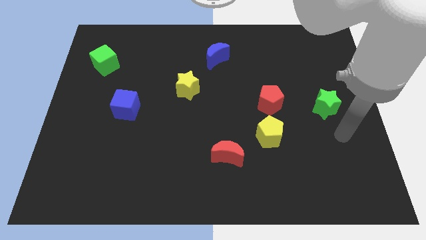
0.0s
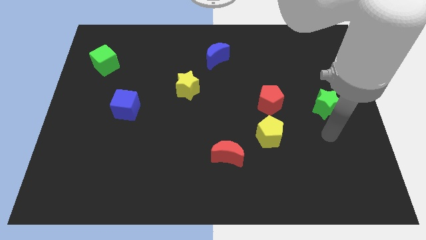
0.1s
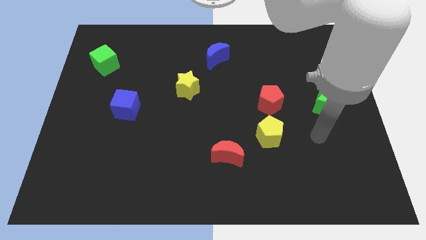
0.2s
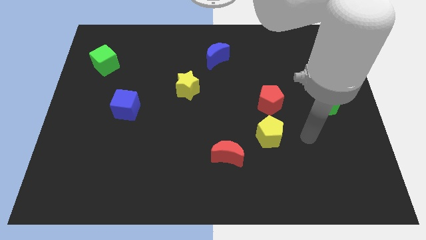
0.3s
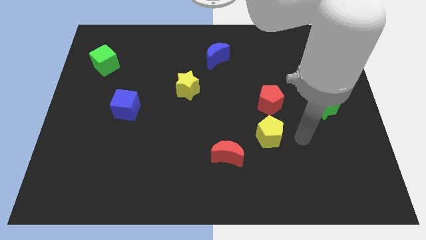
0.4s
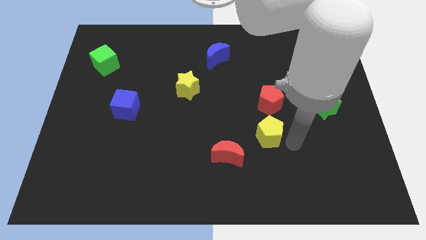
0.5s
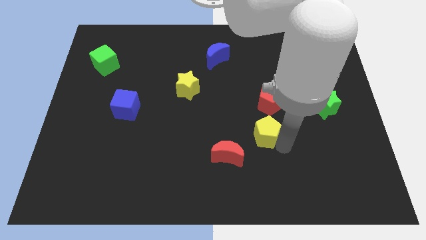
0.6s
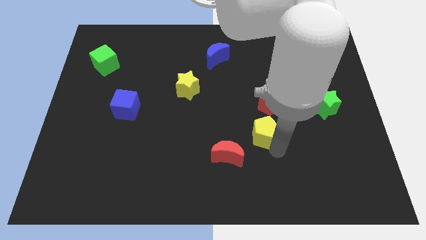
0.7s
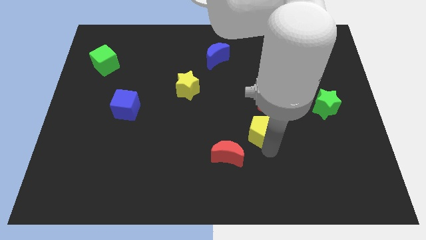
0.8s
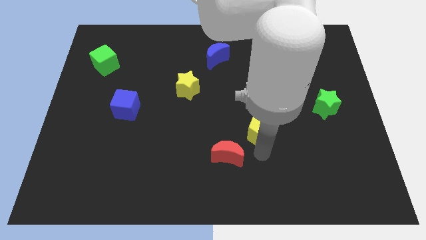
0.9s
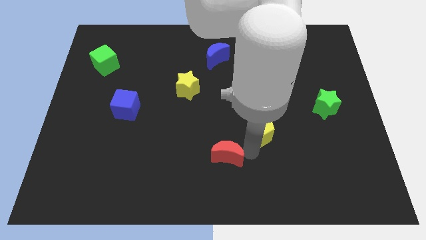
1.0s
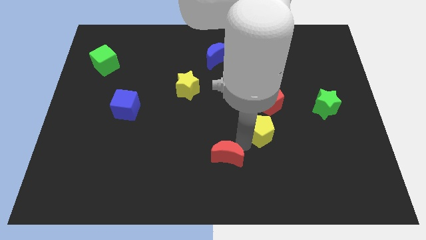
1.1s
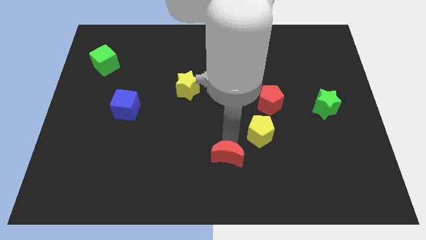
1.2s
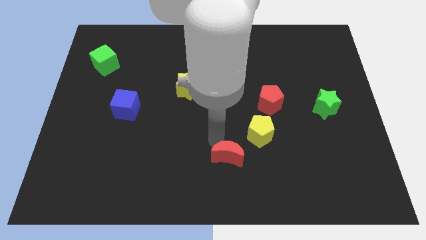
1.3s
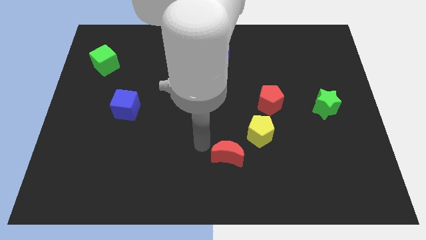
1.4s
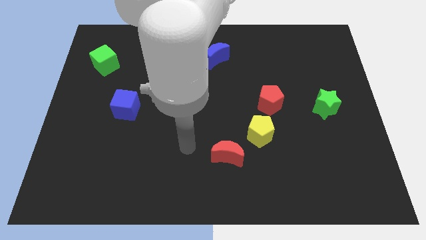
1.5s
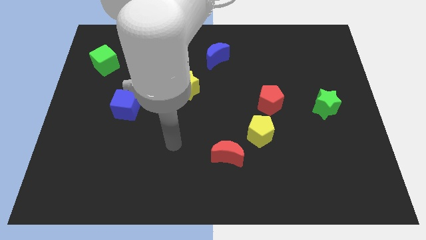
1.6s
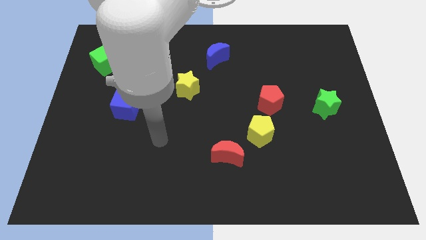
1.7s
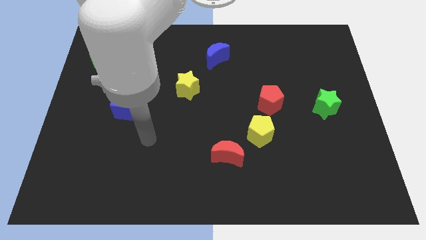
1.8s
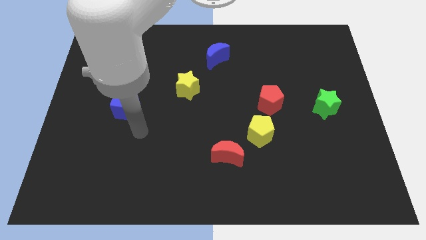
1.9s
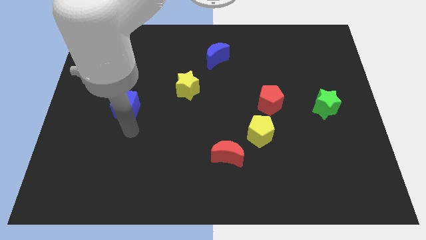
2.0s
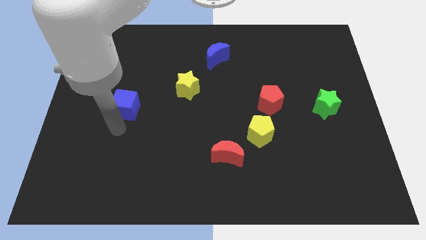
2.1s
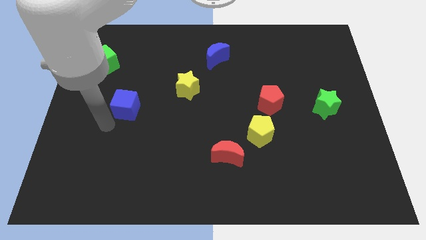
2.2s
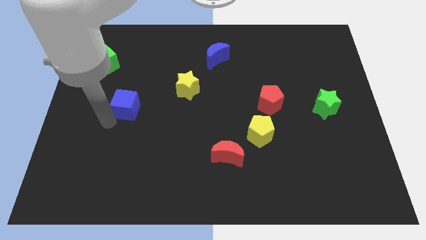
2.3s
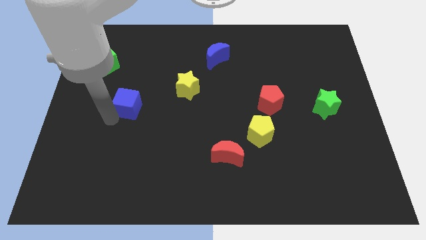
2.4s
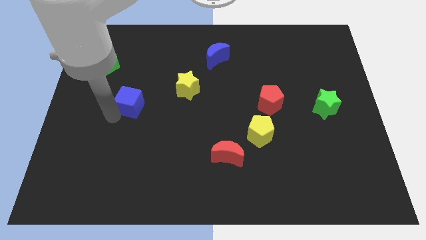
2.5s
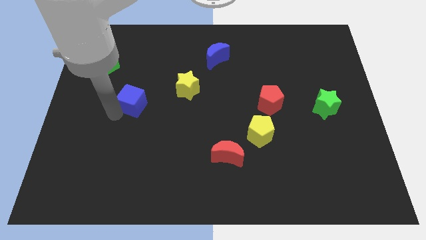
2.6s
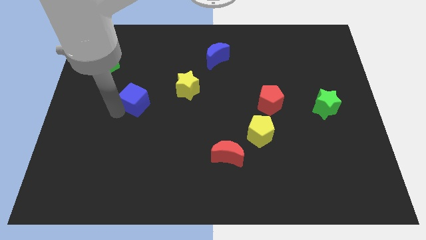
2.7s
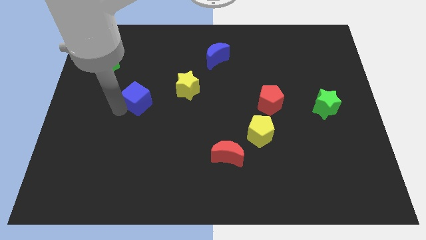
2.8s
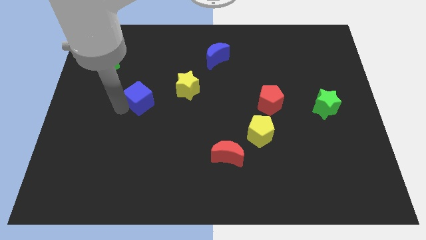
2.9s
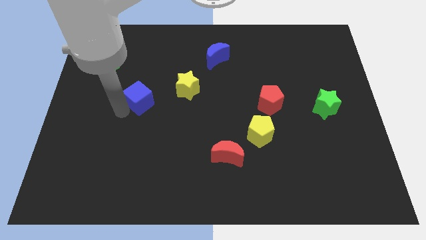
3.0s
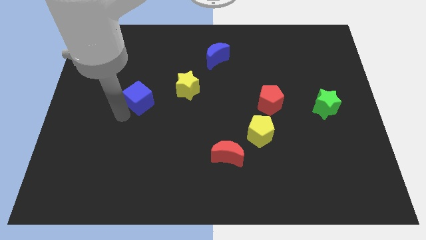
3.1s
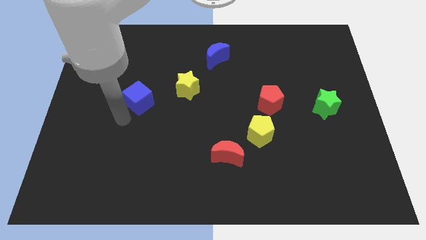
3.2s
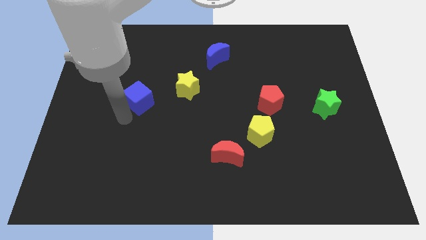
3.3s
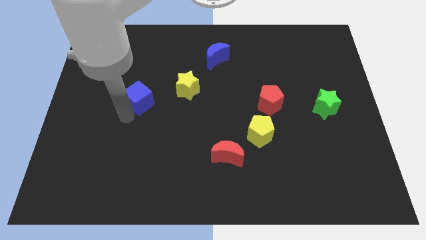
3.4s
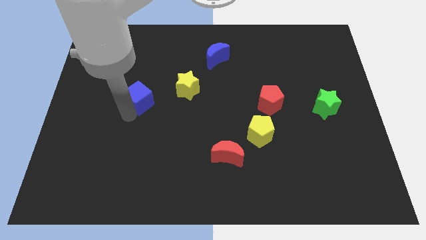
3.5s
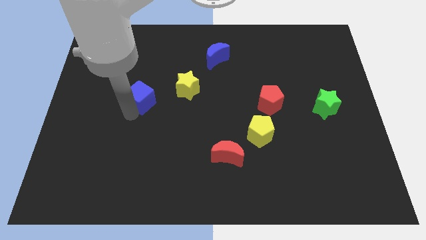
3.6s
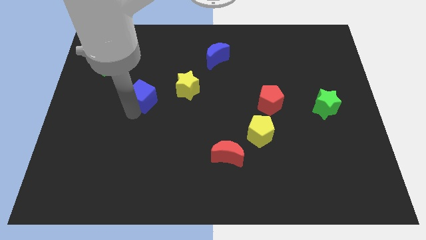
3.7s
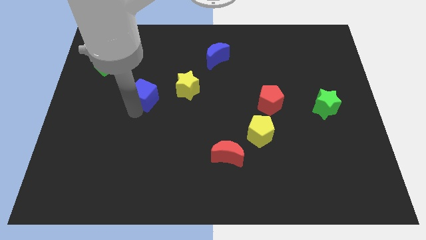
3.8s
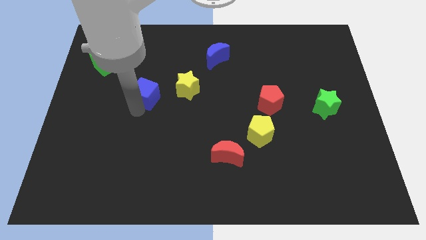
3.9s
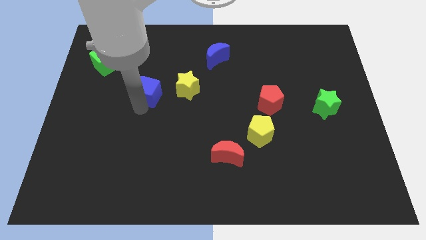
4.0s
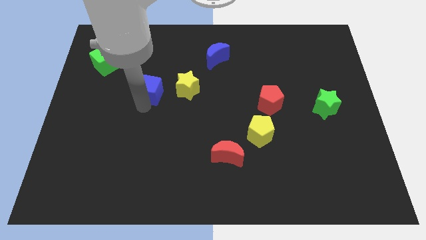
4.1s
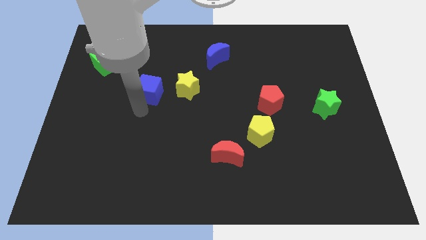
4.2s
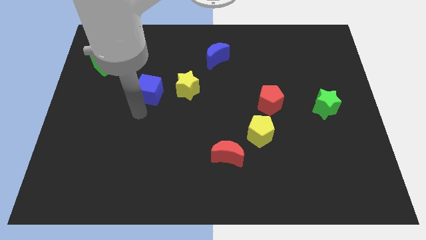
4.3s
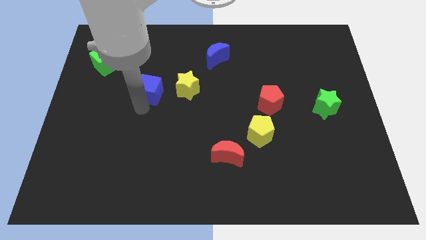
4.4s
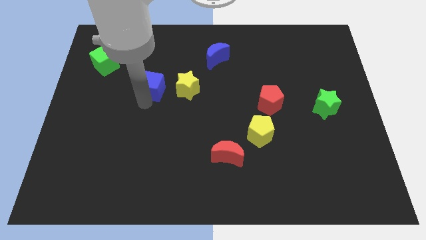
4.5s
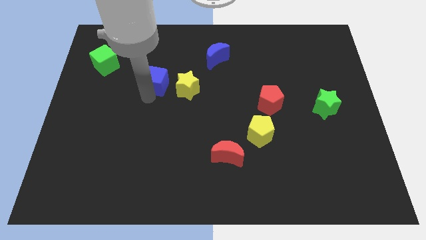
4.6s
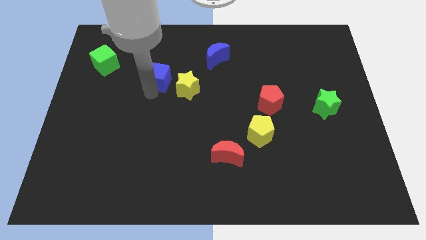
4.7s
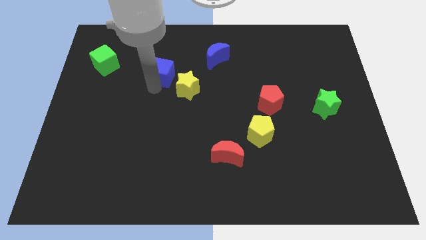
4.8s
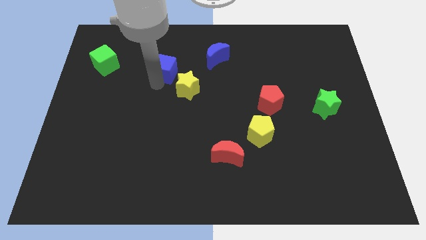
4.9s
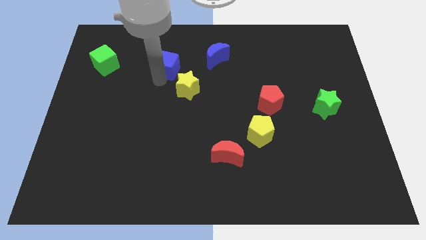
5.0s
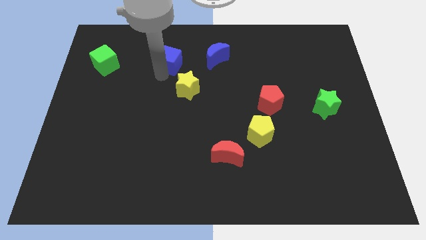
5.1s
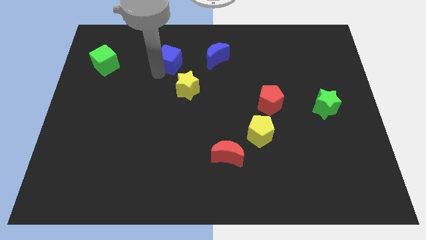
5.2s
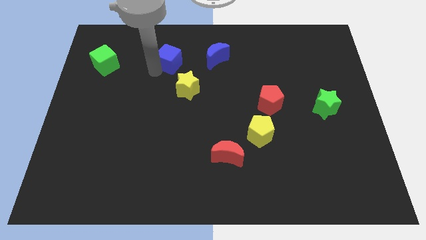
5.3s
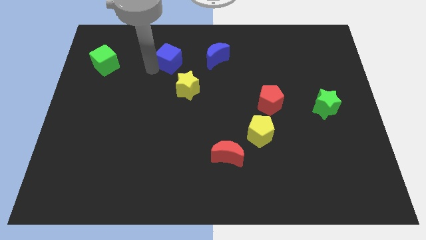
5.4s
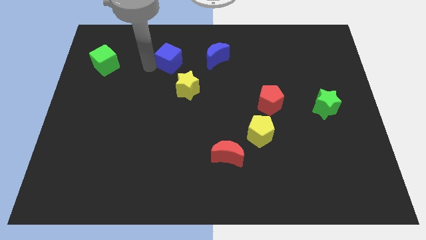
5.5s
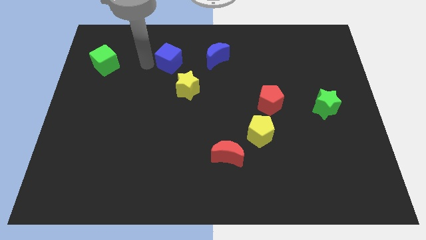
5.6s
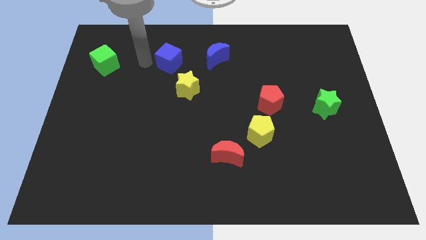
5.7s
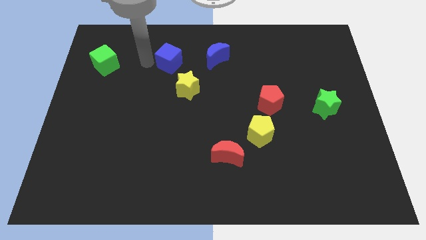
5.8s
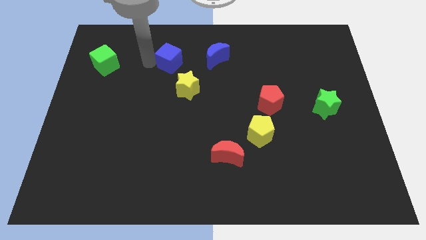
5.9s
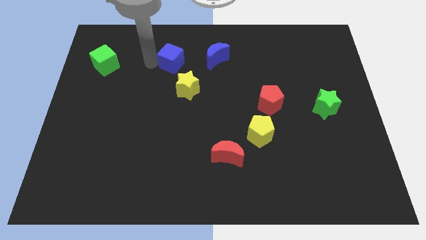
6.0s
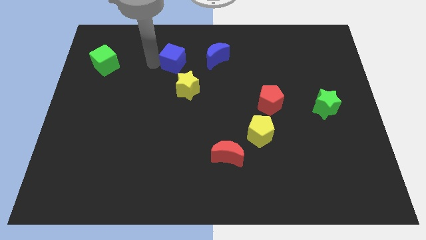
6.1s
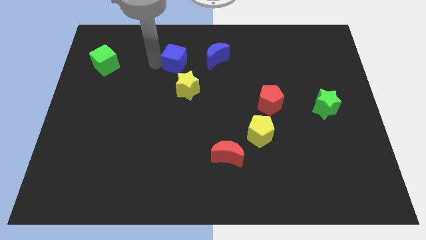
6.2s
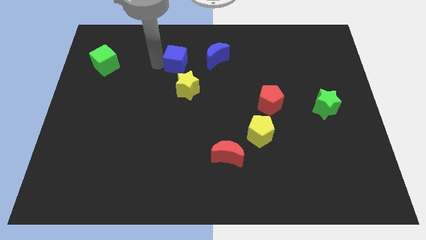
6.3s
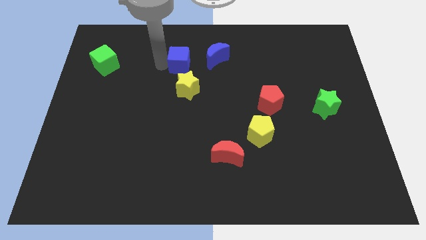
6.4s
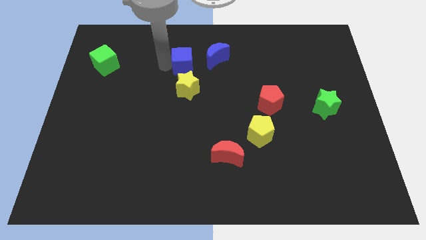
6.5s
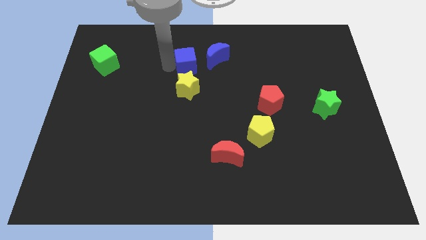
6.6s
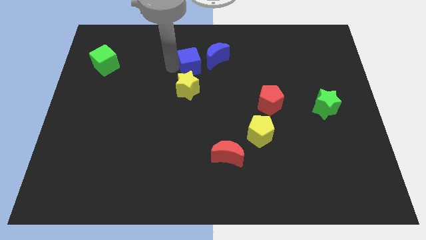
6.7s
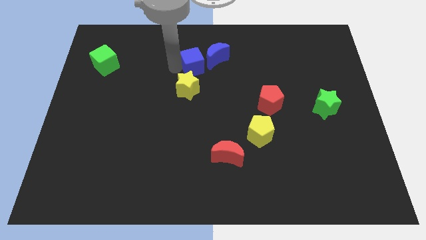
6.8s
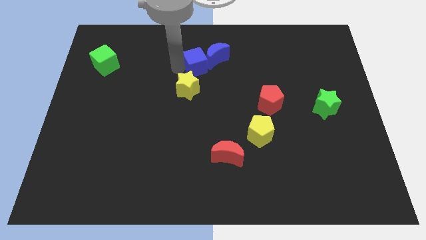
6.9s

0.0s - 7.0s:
slide the blue cube close to the blue moon
